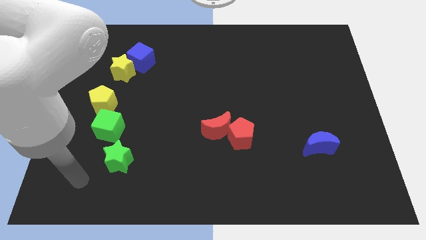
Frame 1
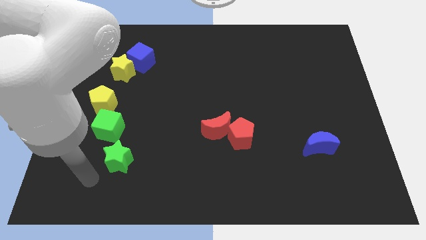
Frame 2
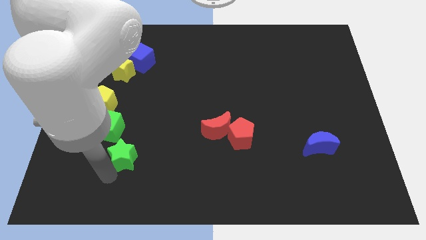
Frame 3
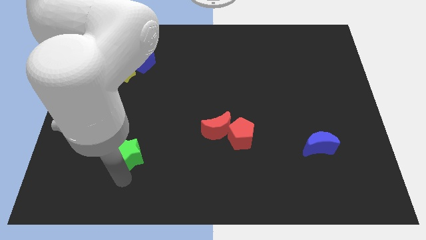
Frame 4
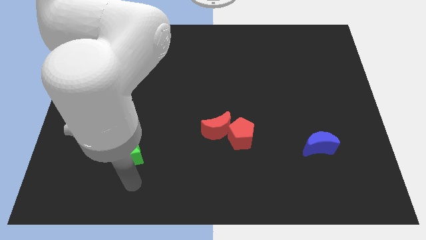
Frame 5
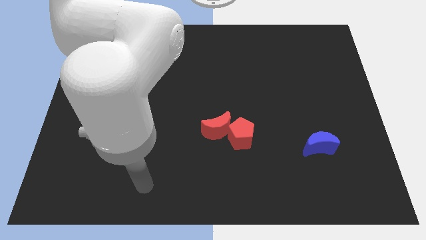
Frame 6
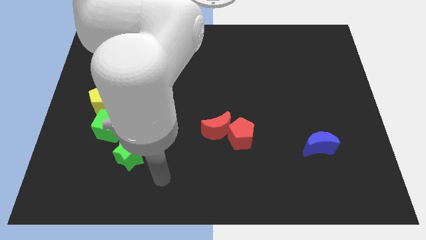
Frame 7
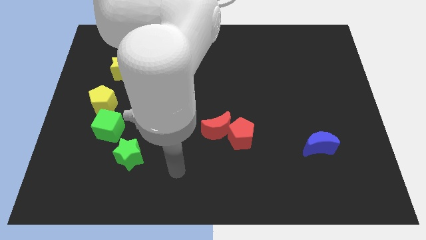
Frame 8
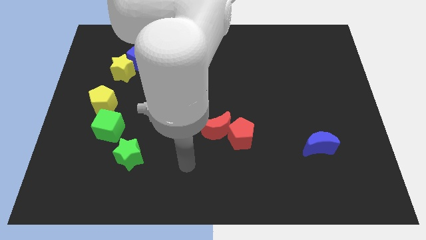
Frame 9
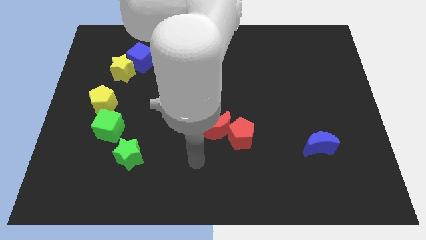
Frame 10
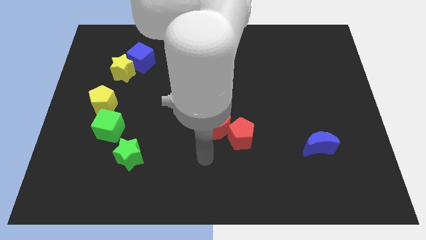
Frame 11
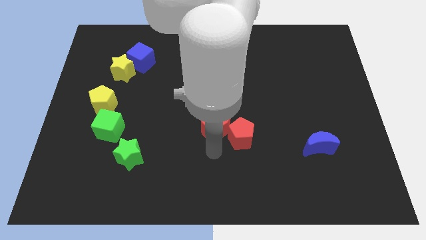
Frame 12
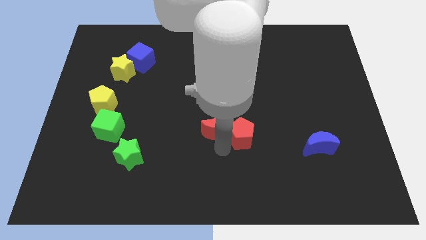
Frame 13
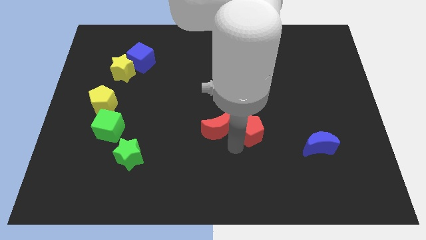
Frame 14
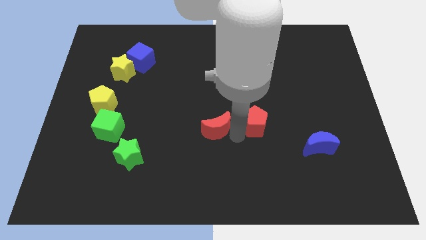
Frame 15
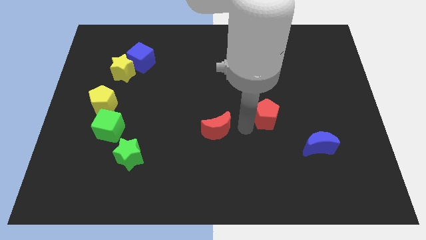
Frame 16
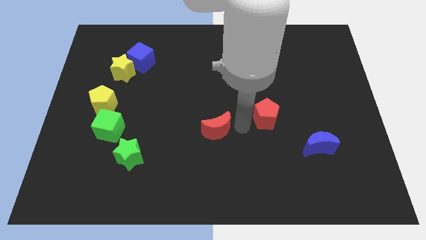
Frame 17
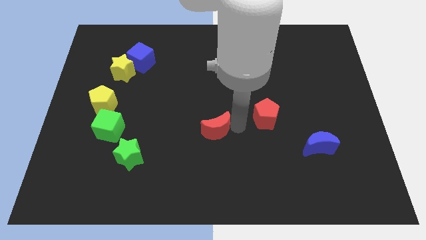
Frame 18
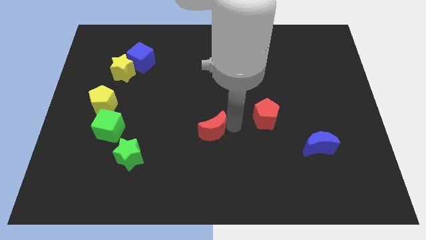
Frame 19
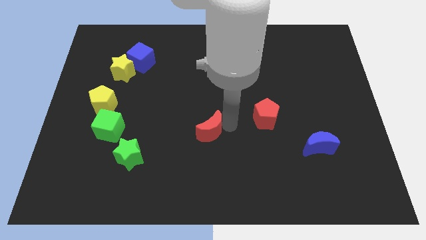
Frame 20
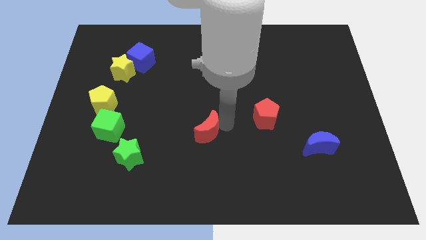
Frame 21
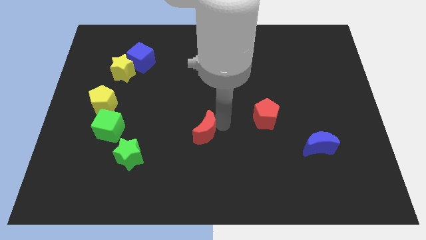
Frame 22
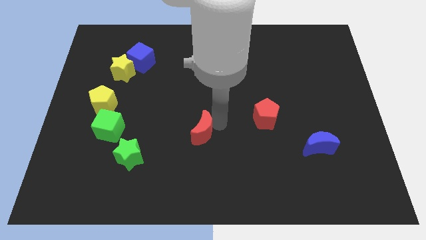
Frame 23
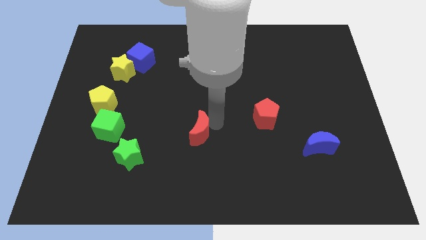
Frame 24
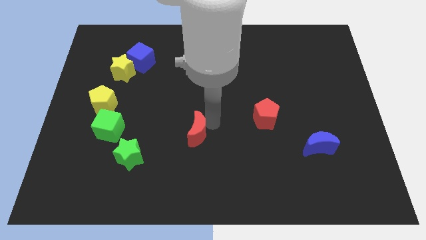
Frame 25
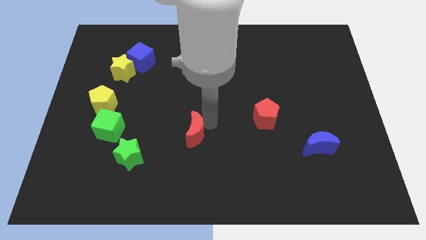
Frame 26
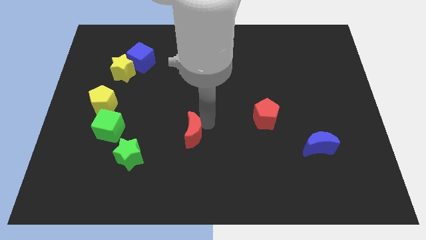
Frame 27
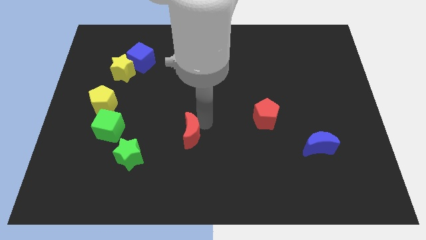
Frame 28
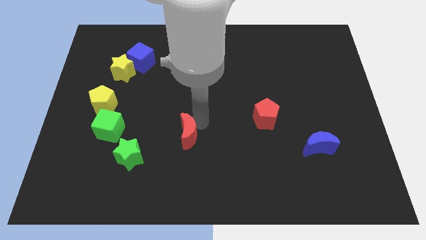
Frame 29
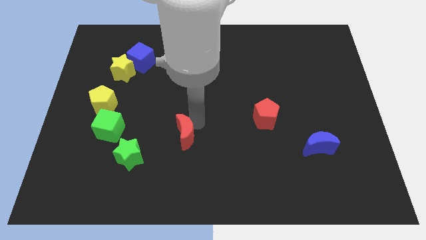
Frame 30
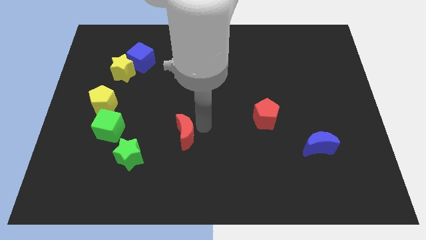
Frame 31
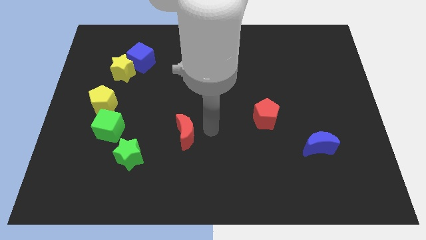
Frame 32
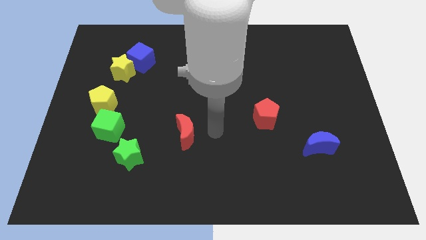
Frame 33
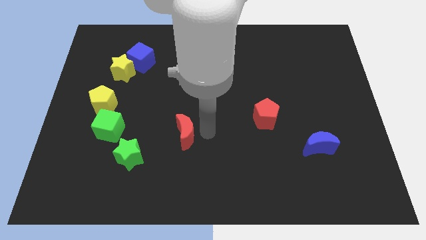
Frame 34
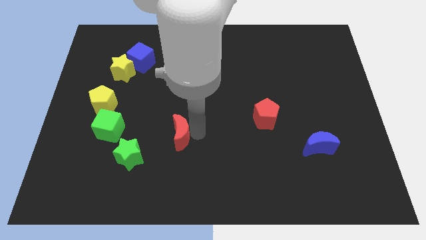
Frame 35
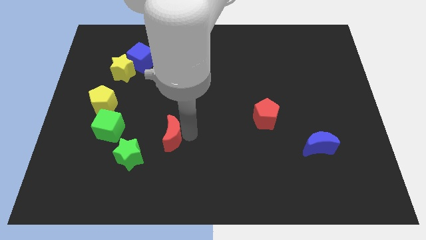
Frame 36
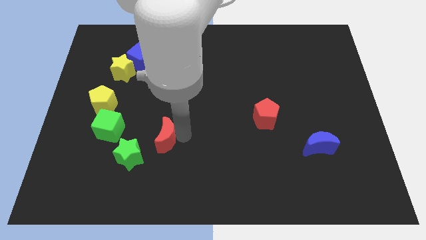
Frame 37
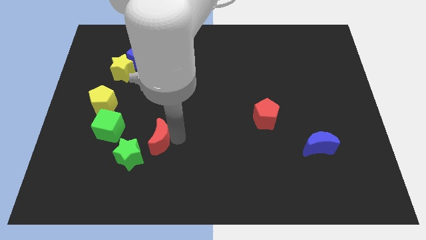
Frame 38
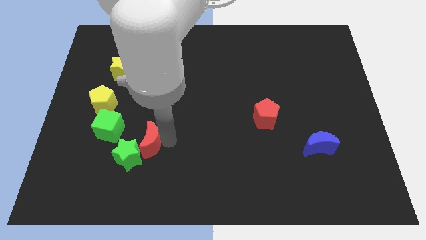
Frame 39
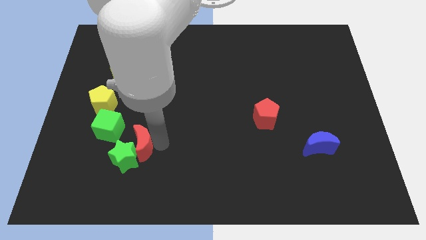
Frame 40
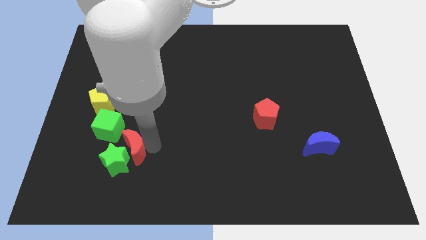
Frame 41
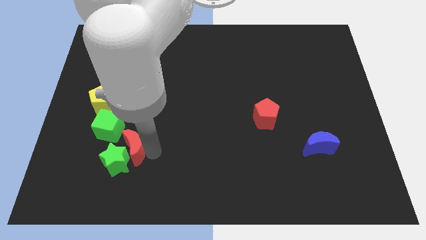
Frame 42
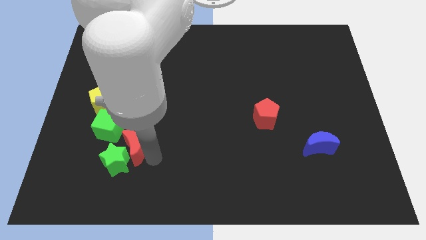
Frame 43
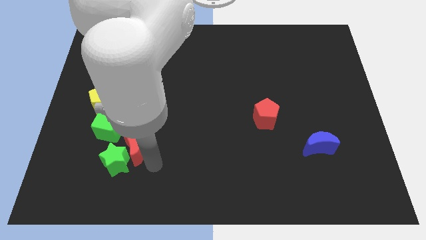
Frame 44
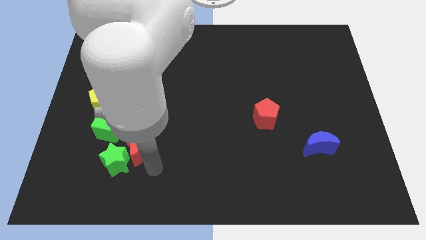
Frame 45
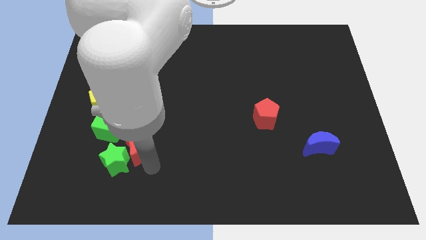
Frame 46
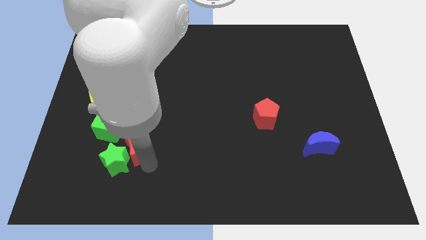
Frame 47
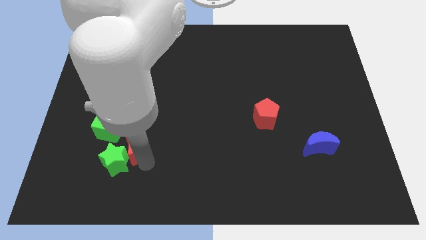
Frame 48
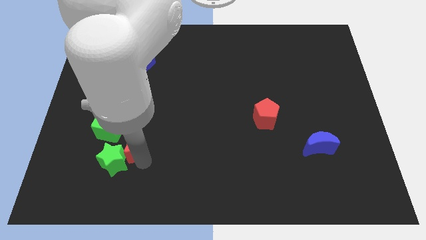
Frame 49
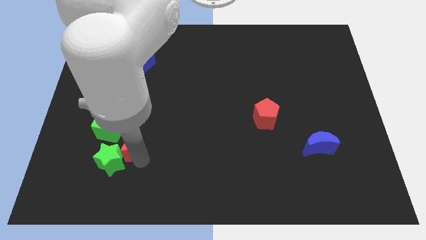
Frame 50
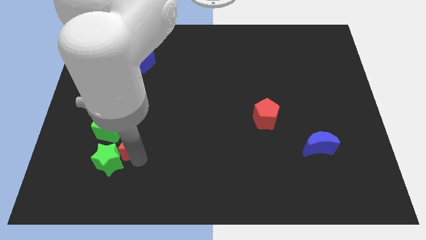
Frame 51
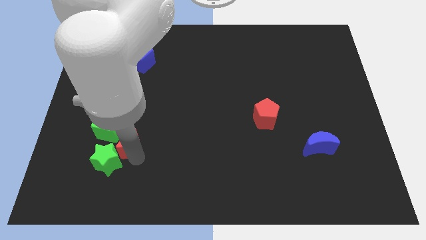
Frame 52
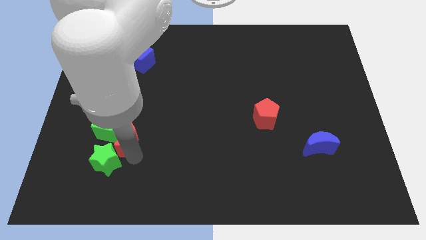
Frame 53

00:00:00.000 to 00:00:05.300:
put the red moon next to the green cube

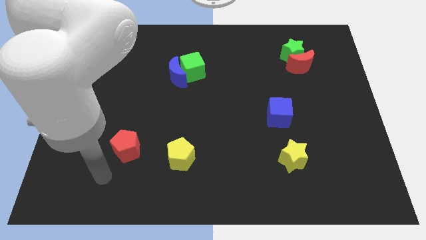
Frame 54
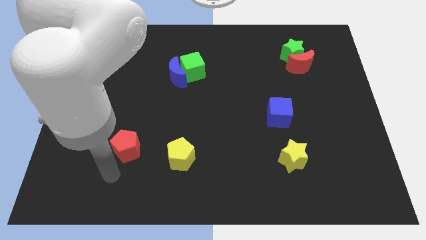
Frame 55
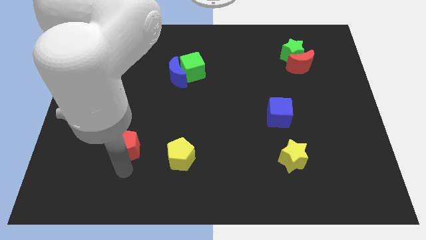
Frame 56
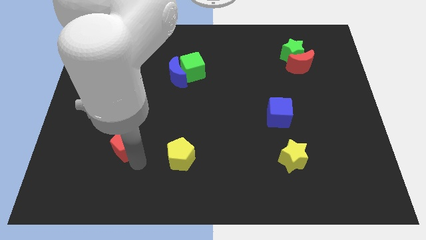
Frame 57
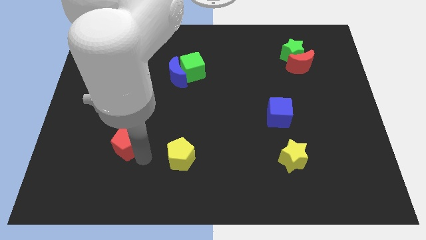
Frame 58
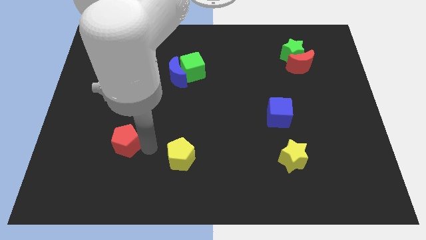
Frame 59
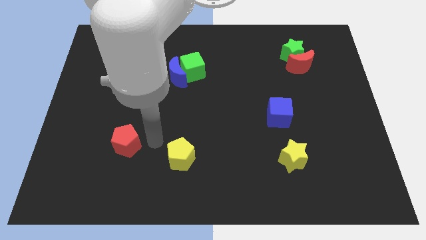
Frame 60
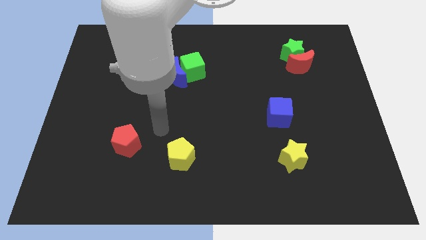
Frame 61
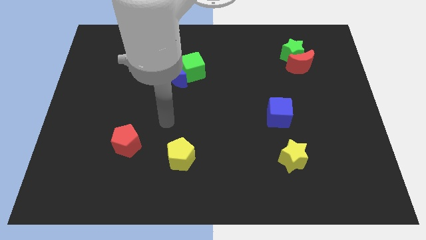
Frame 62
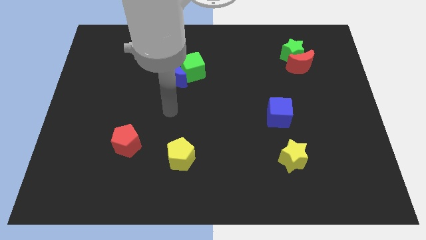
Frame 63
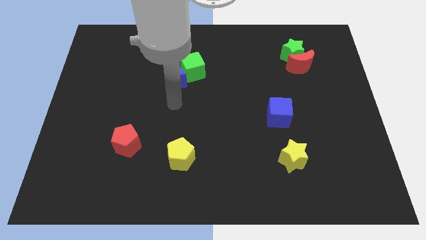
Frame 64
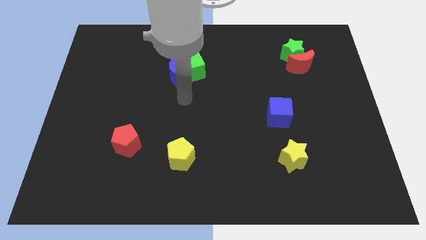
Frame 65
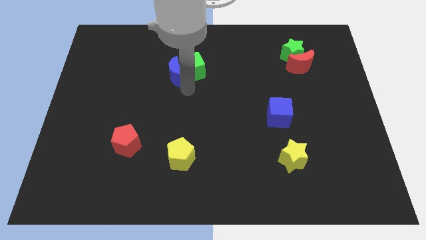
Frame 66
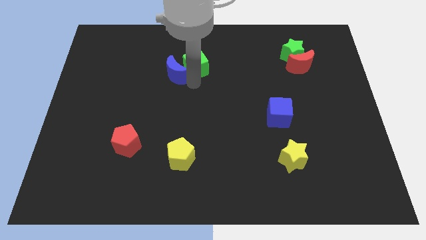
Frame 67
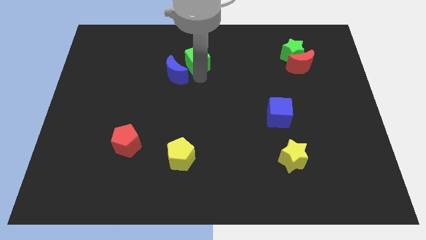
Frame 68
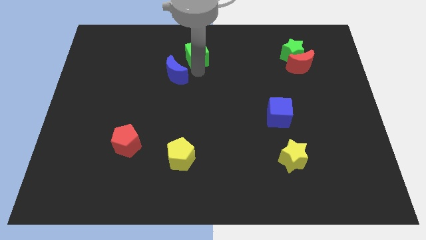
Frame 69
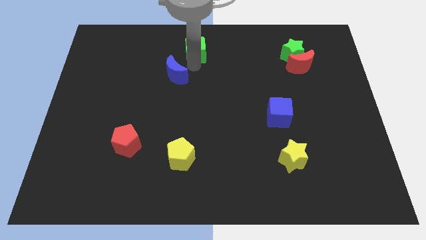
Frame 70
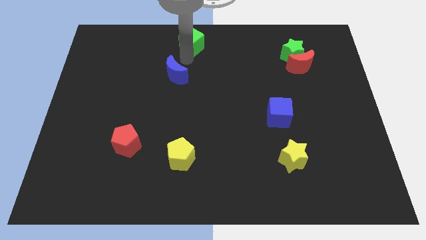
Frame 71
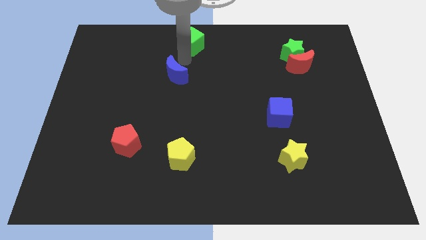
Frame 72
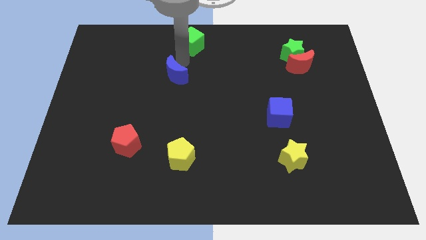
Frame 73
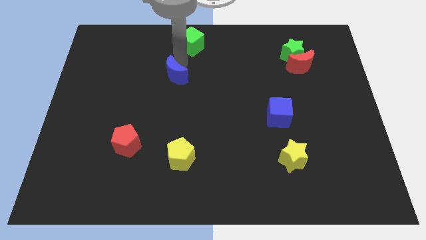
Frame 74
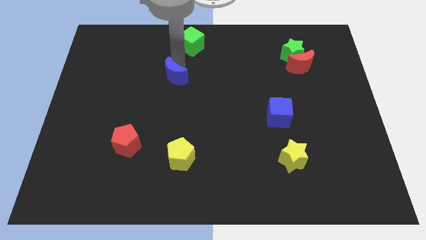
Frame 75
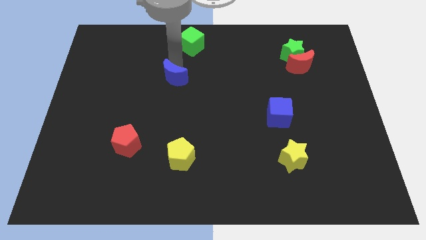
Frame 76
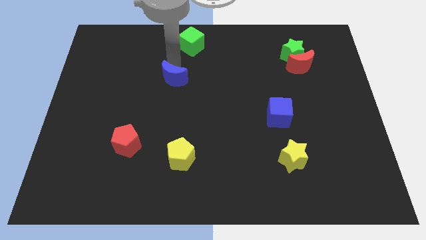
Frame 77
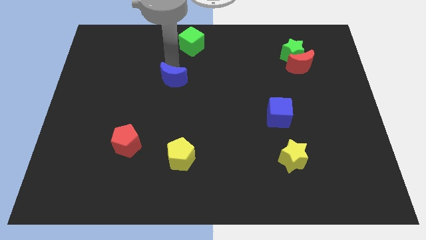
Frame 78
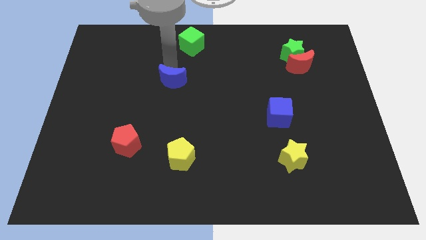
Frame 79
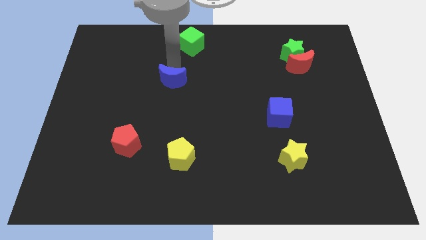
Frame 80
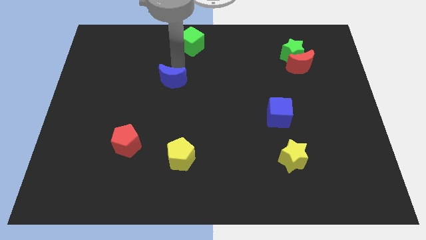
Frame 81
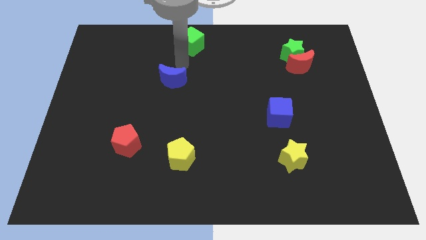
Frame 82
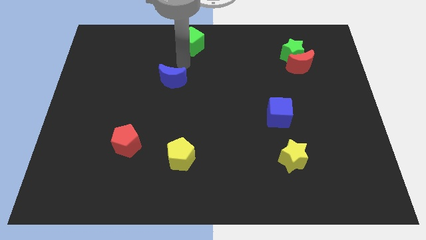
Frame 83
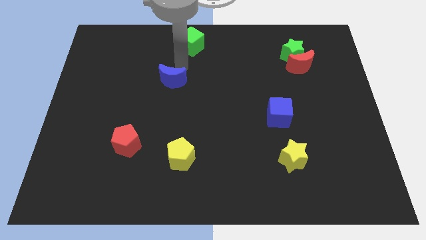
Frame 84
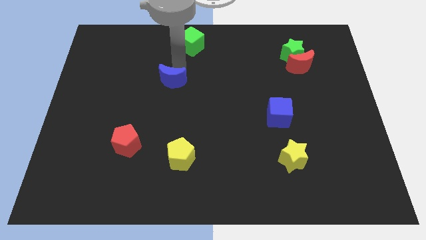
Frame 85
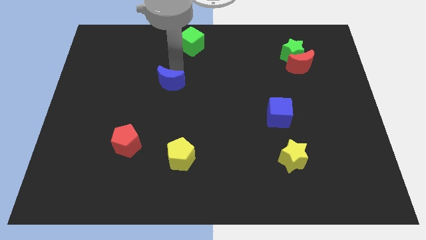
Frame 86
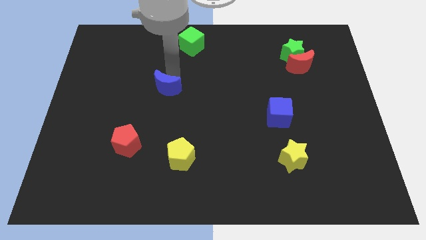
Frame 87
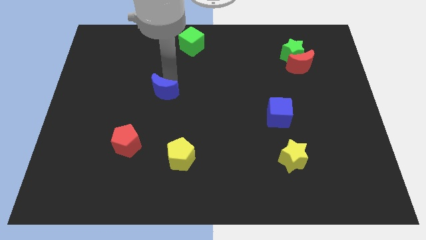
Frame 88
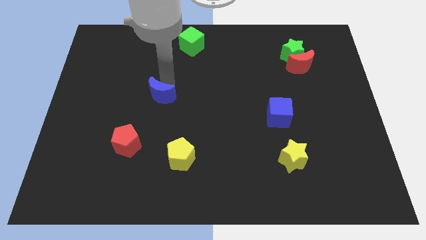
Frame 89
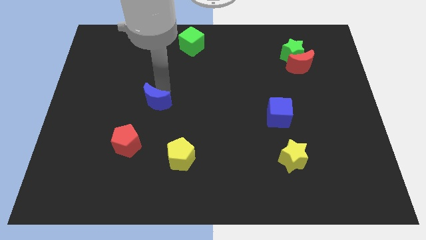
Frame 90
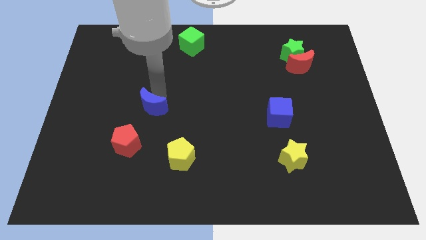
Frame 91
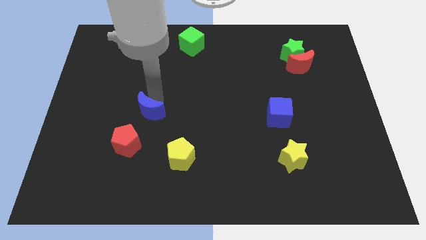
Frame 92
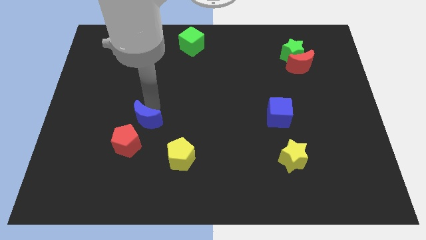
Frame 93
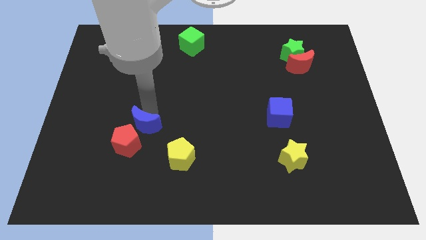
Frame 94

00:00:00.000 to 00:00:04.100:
slide the blue moon to the red pentagon
